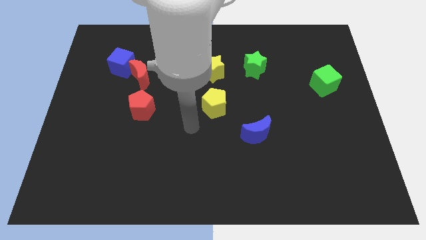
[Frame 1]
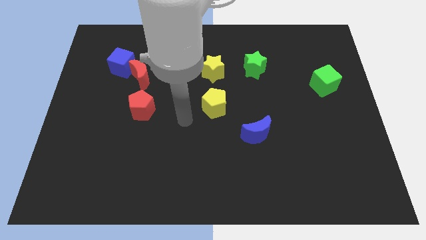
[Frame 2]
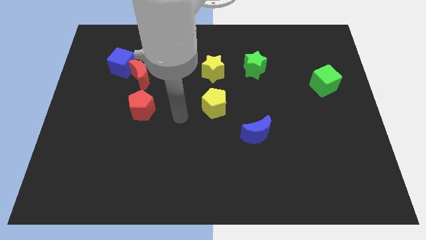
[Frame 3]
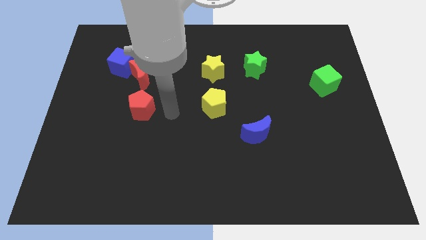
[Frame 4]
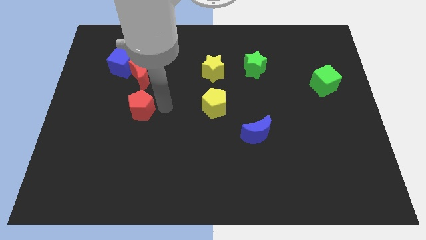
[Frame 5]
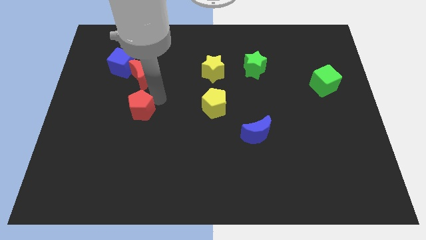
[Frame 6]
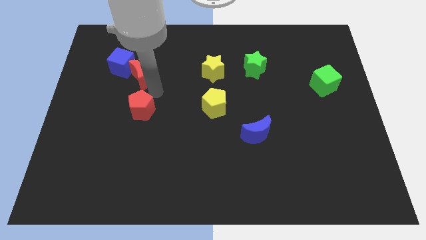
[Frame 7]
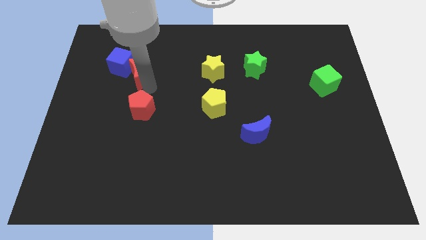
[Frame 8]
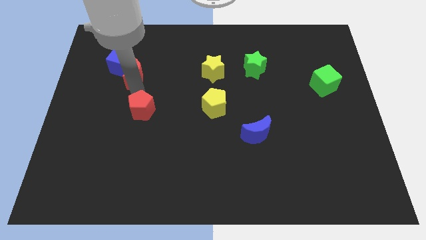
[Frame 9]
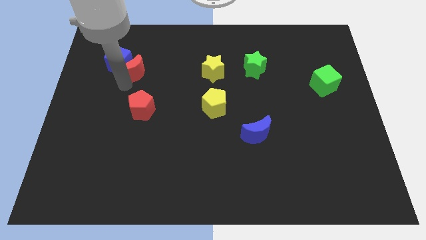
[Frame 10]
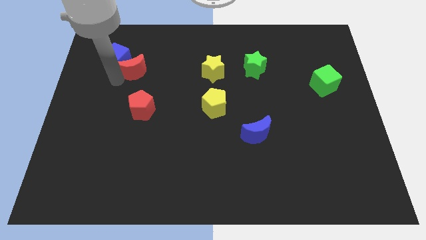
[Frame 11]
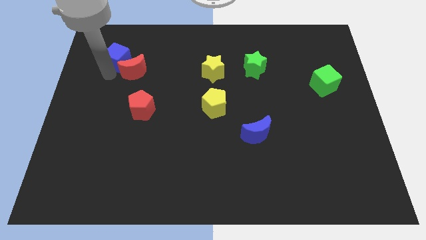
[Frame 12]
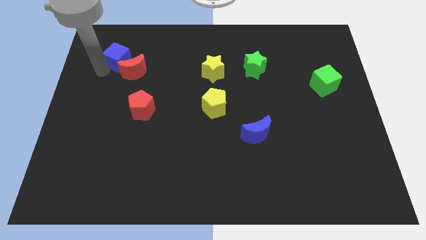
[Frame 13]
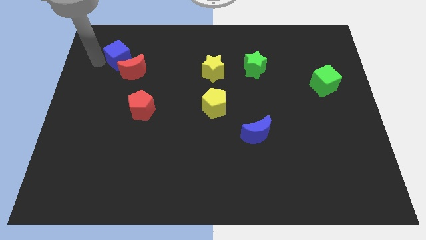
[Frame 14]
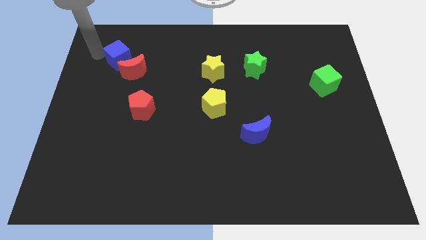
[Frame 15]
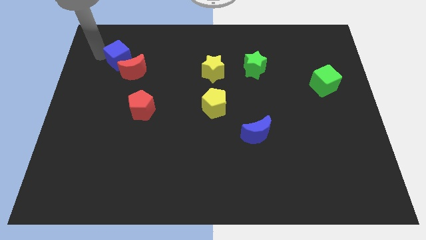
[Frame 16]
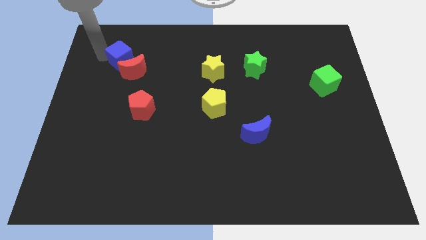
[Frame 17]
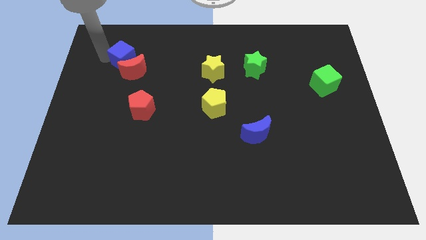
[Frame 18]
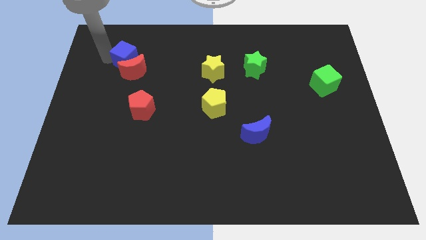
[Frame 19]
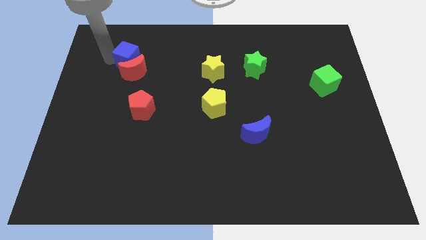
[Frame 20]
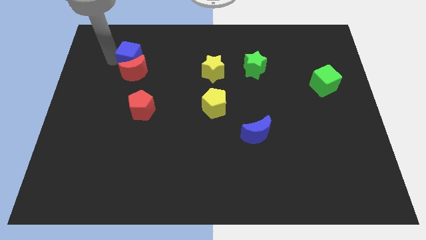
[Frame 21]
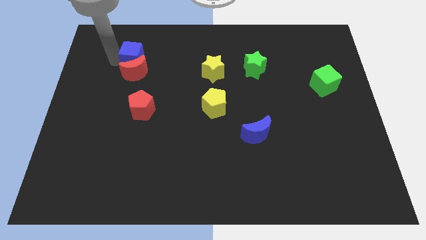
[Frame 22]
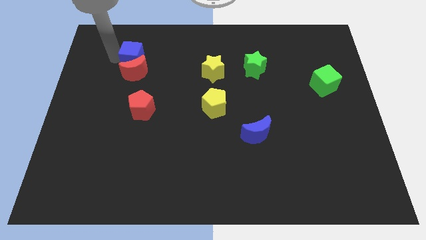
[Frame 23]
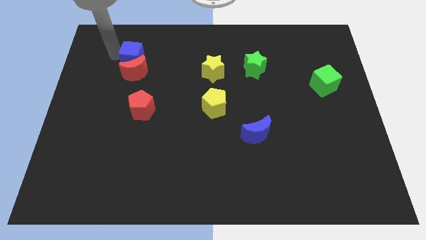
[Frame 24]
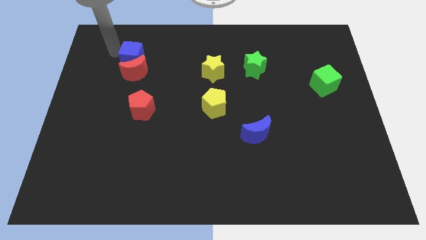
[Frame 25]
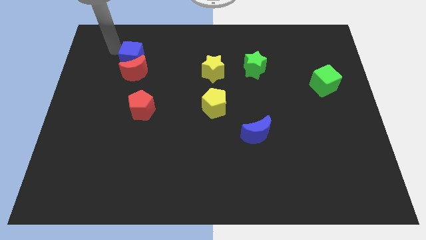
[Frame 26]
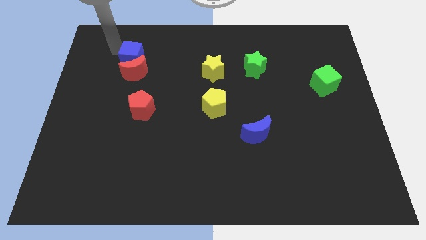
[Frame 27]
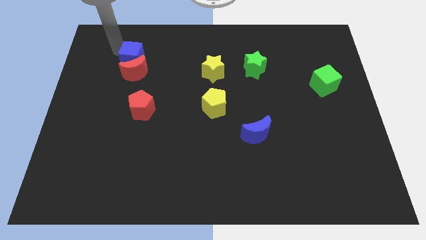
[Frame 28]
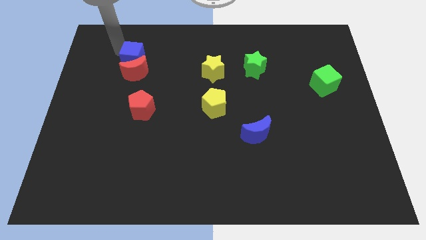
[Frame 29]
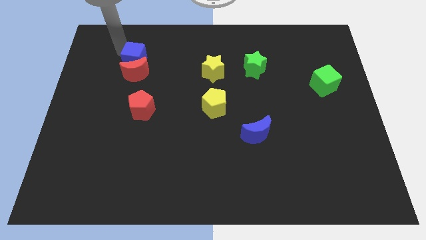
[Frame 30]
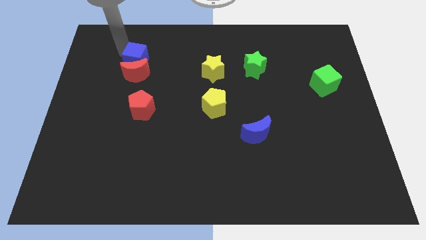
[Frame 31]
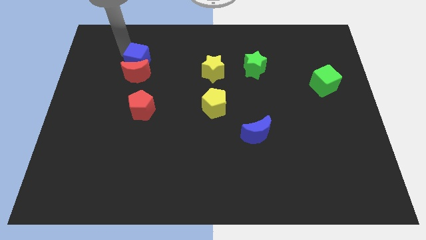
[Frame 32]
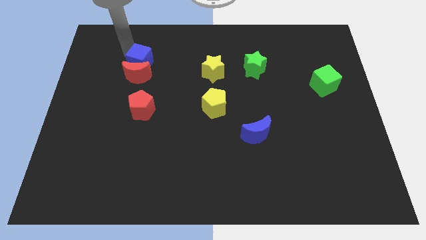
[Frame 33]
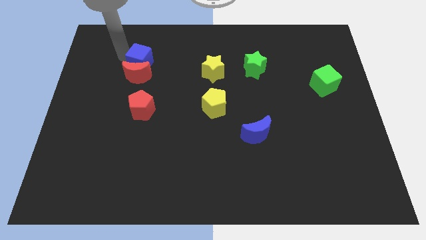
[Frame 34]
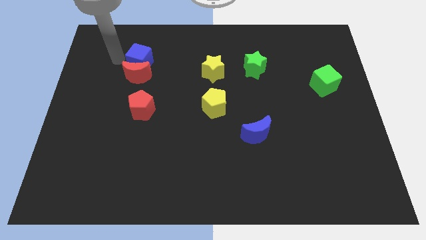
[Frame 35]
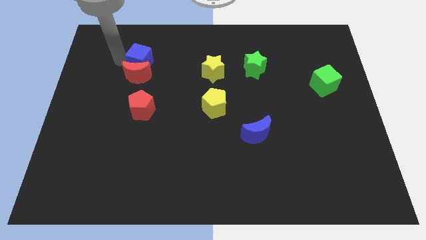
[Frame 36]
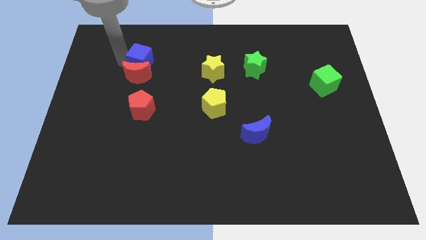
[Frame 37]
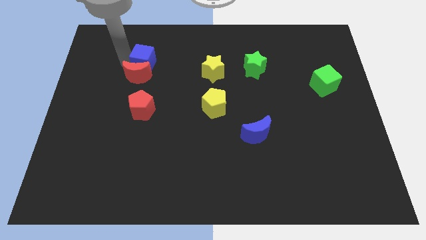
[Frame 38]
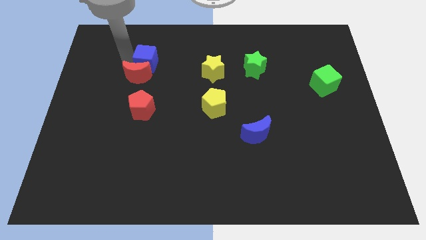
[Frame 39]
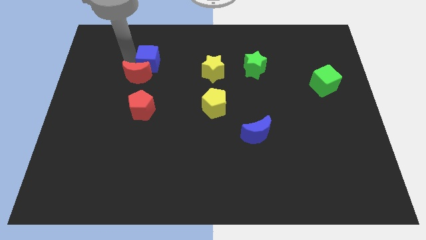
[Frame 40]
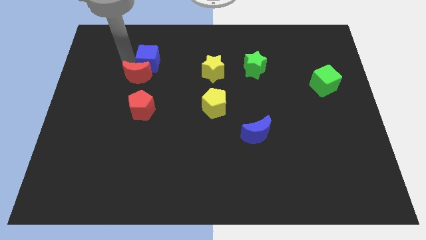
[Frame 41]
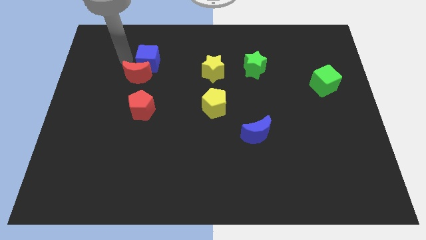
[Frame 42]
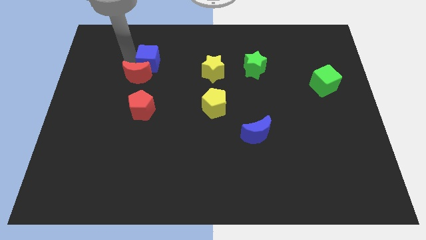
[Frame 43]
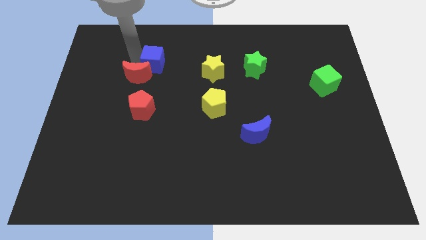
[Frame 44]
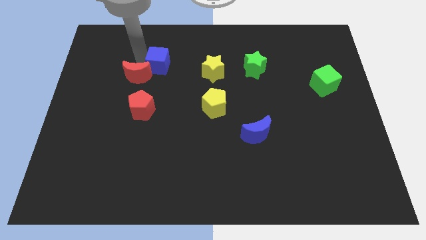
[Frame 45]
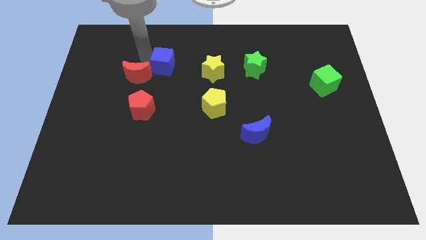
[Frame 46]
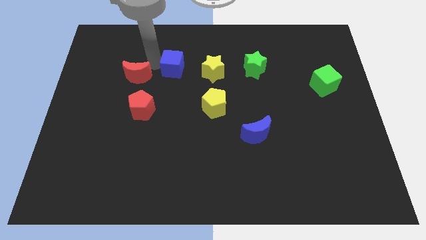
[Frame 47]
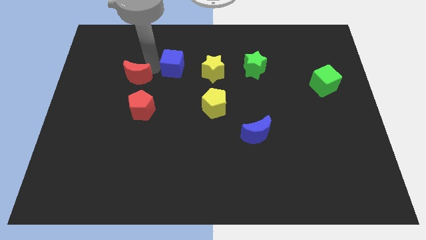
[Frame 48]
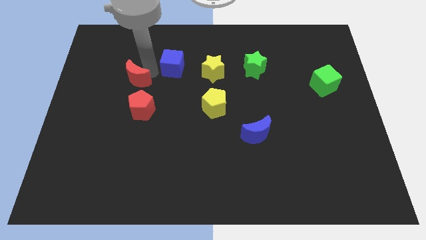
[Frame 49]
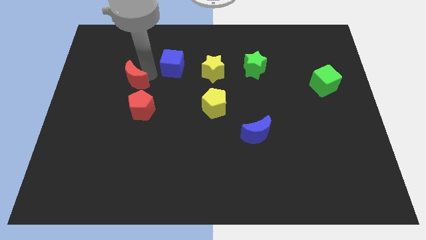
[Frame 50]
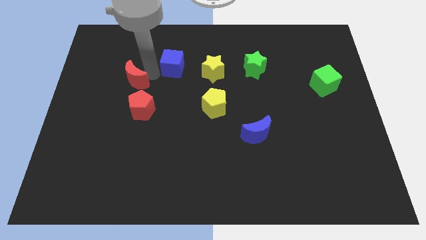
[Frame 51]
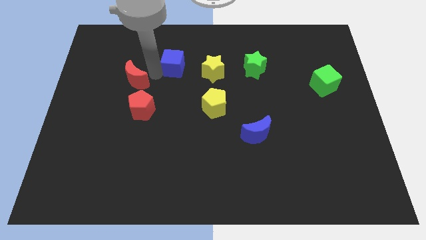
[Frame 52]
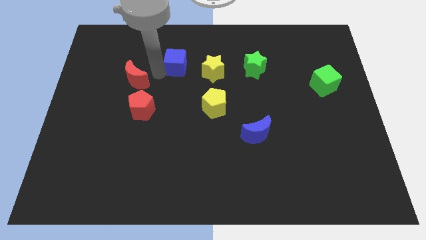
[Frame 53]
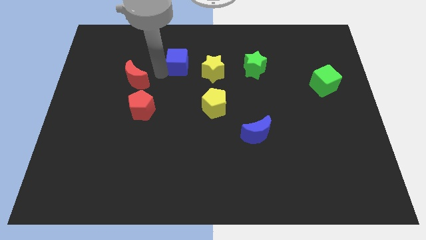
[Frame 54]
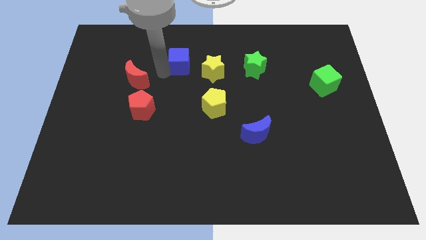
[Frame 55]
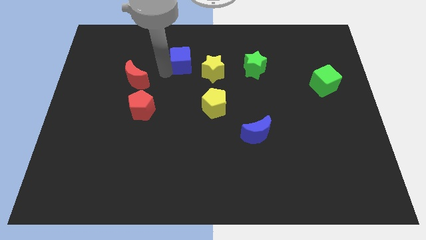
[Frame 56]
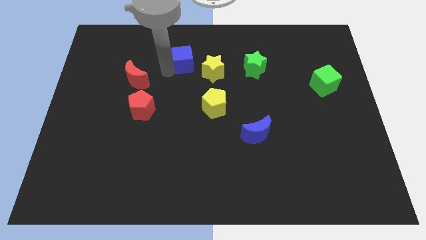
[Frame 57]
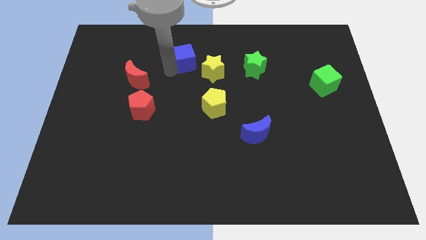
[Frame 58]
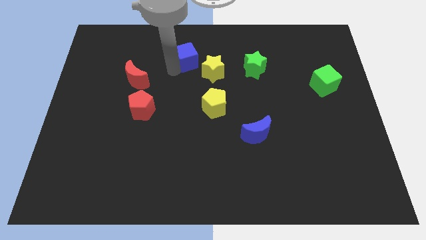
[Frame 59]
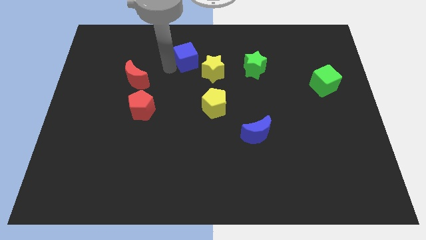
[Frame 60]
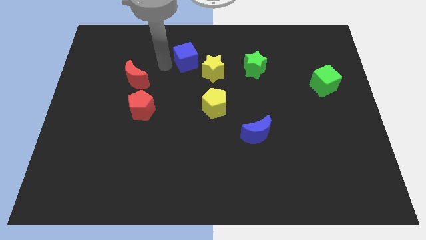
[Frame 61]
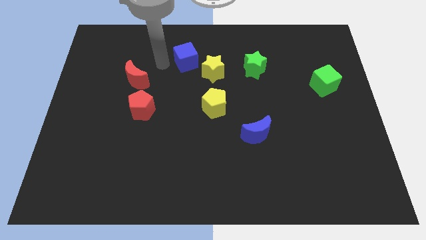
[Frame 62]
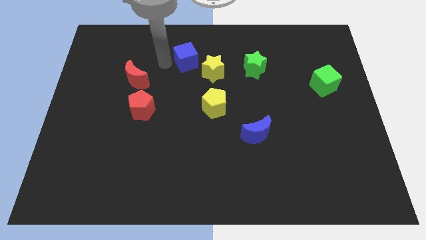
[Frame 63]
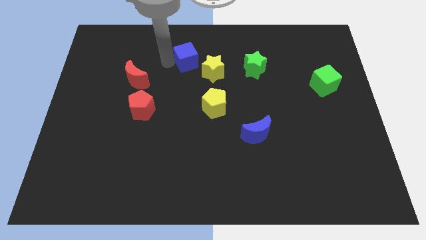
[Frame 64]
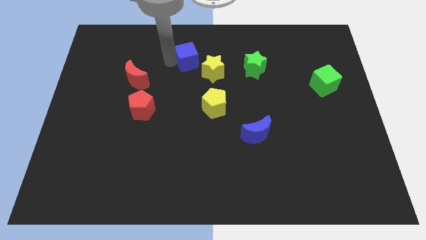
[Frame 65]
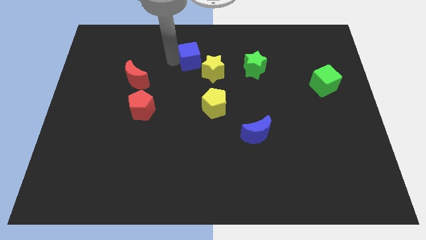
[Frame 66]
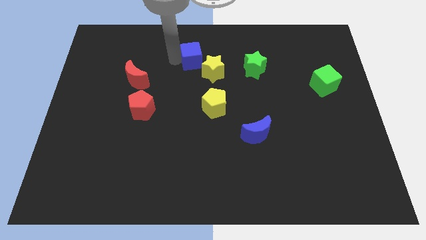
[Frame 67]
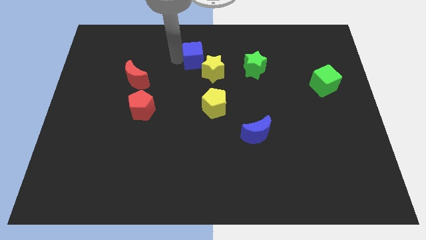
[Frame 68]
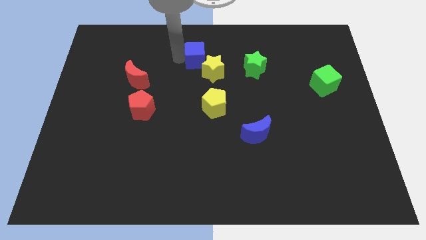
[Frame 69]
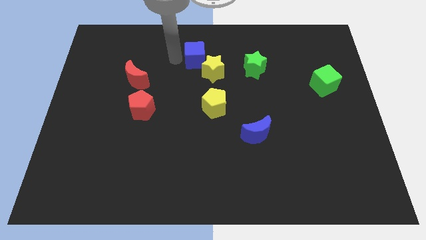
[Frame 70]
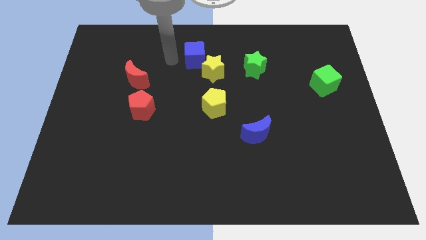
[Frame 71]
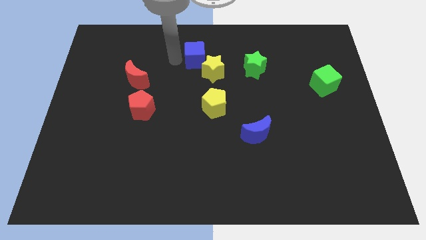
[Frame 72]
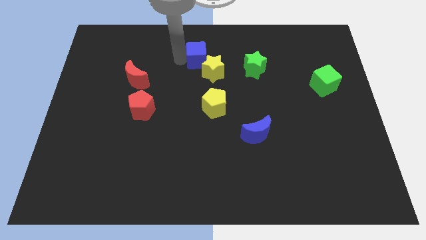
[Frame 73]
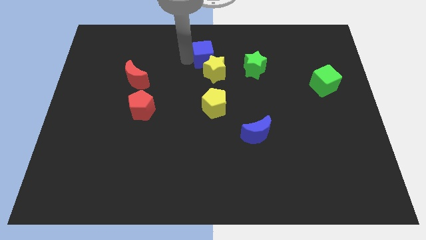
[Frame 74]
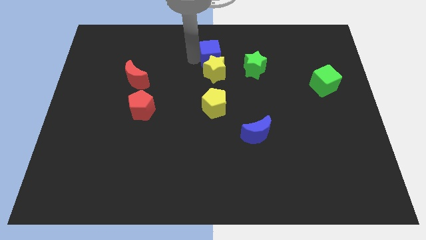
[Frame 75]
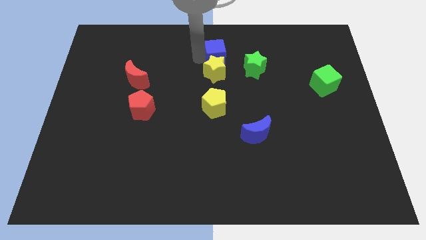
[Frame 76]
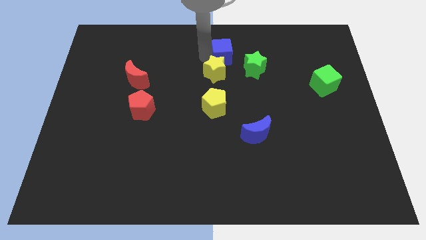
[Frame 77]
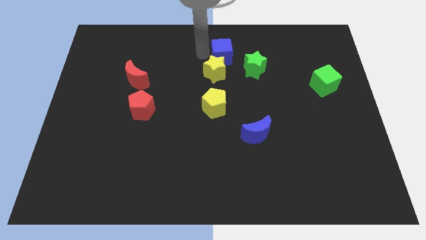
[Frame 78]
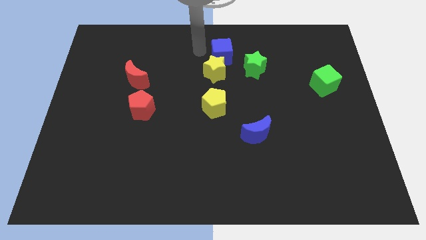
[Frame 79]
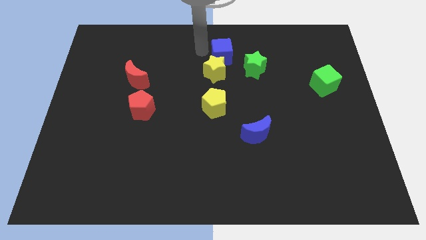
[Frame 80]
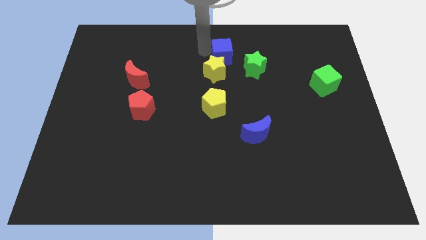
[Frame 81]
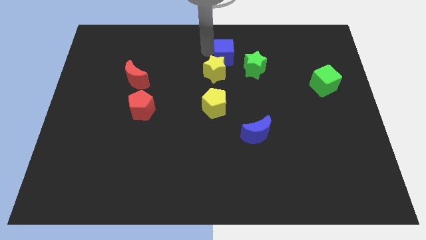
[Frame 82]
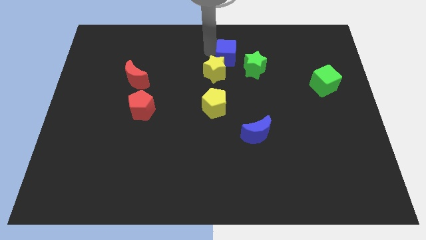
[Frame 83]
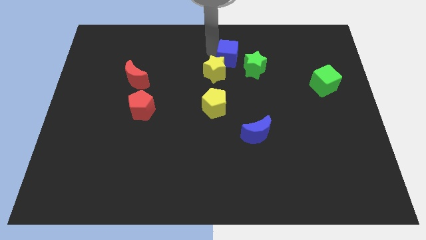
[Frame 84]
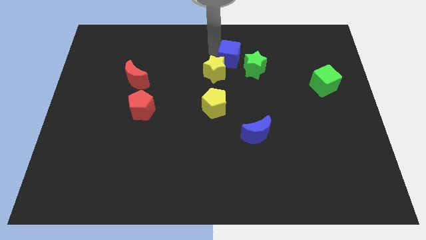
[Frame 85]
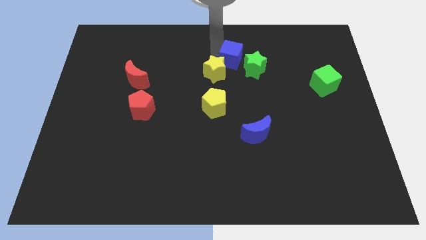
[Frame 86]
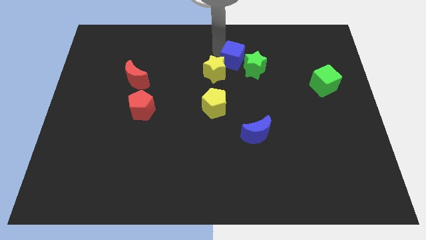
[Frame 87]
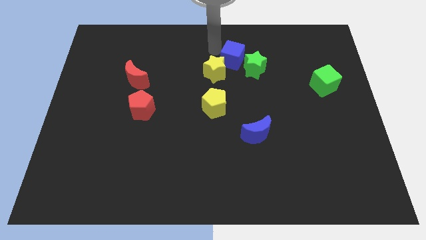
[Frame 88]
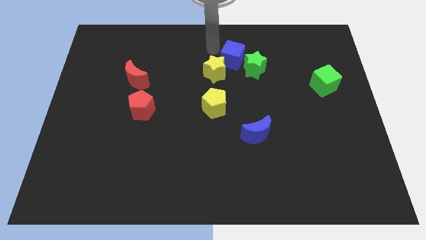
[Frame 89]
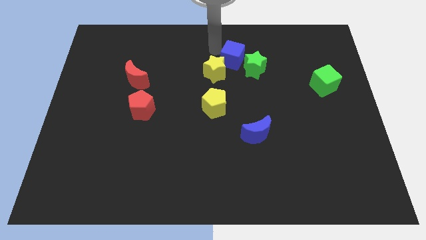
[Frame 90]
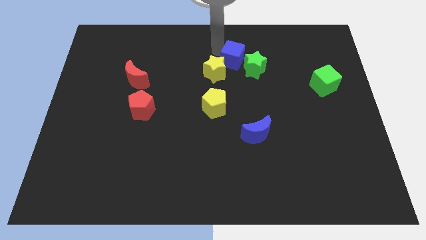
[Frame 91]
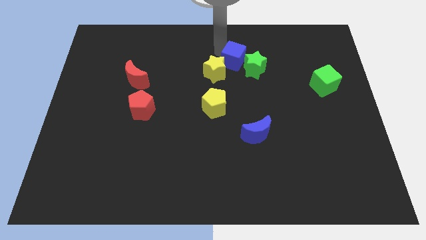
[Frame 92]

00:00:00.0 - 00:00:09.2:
slide the blue cube close to the green star
